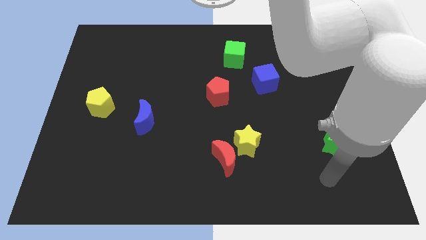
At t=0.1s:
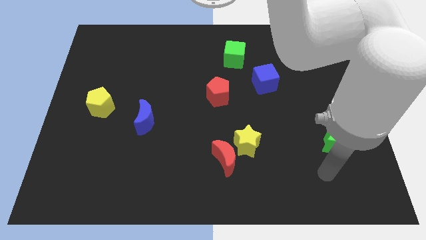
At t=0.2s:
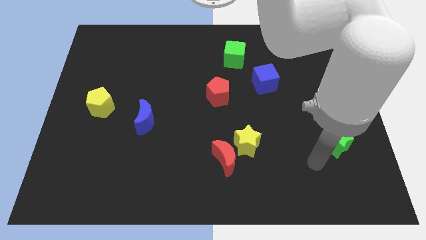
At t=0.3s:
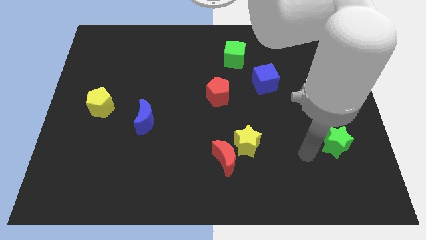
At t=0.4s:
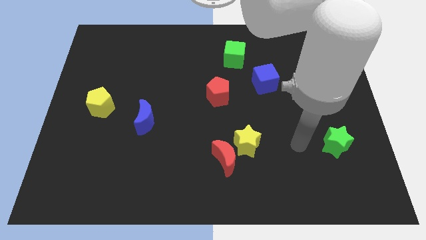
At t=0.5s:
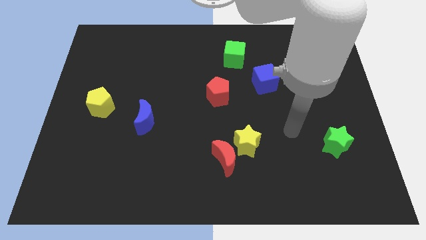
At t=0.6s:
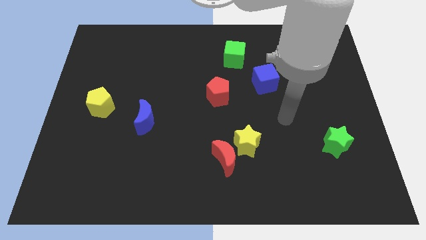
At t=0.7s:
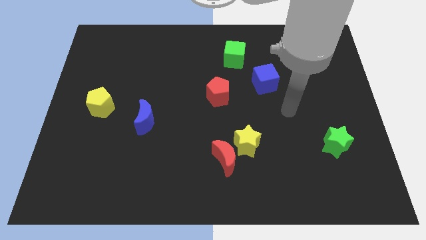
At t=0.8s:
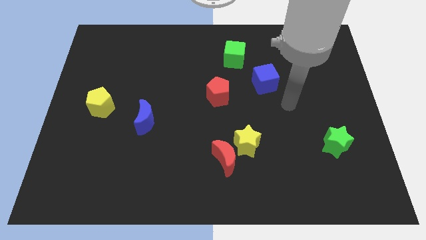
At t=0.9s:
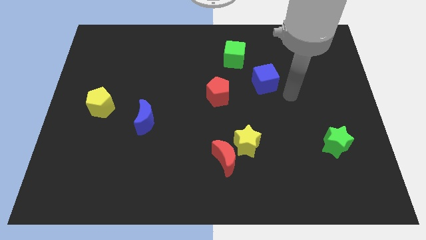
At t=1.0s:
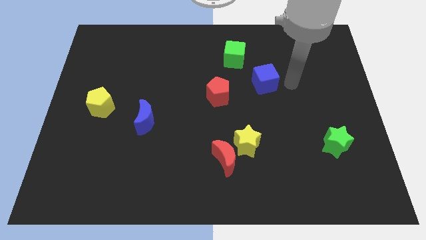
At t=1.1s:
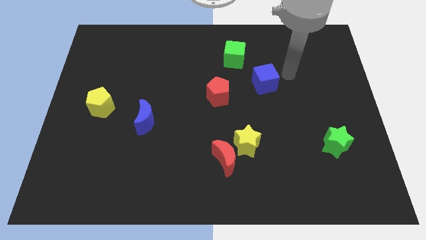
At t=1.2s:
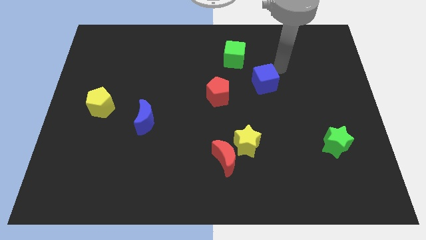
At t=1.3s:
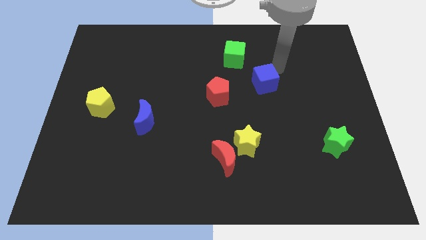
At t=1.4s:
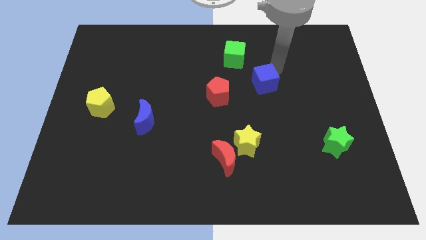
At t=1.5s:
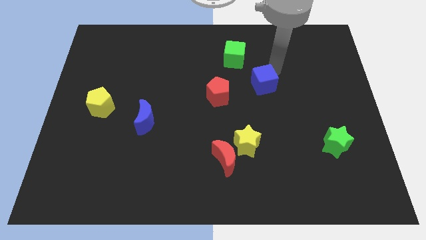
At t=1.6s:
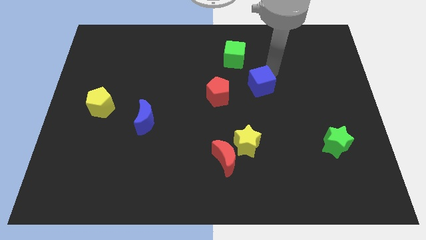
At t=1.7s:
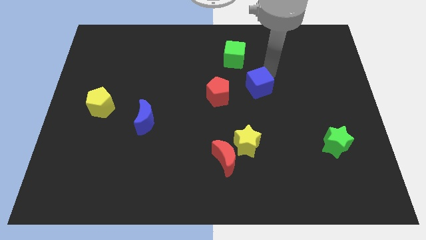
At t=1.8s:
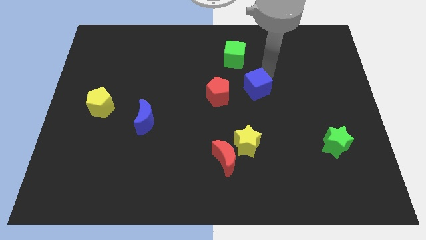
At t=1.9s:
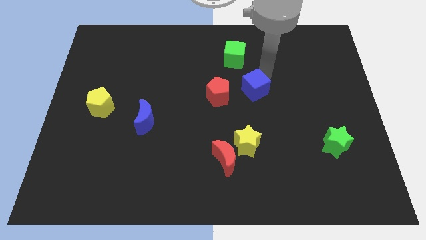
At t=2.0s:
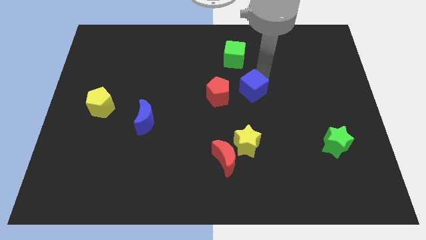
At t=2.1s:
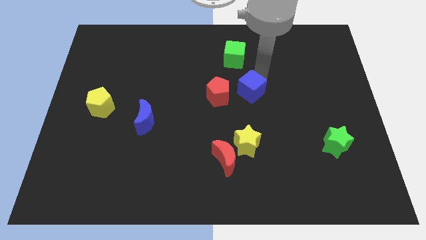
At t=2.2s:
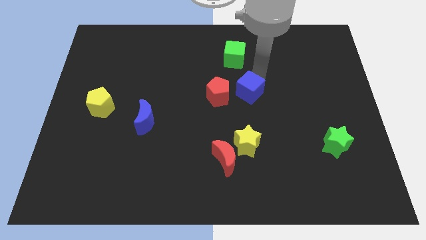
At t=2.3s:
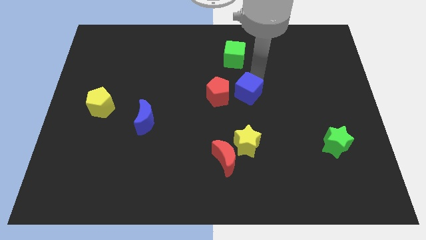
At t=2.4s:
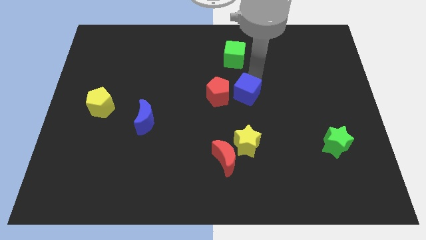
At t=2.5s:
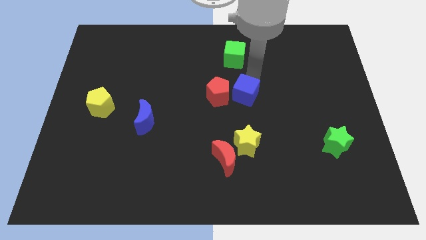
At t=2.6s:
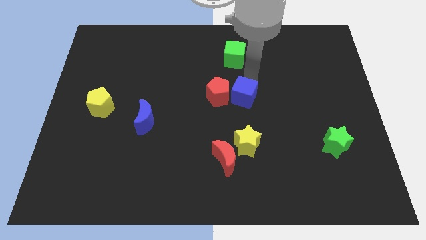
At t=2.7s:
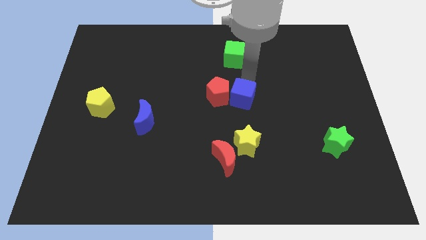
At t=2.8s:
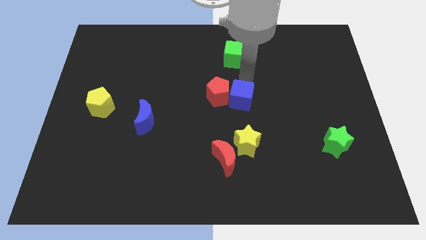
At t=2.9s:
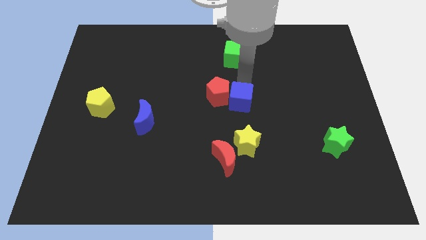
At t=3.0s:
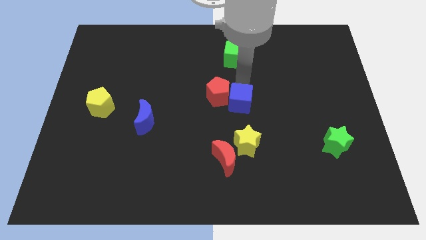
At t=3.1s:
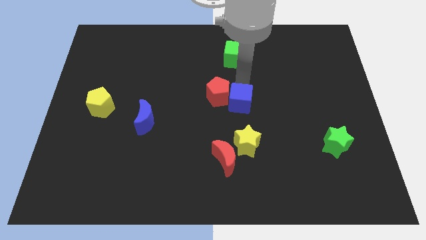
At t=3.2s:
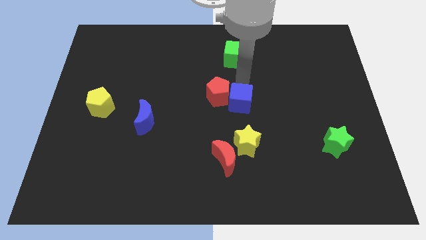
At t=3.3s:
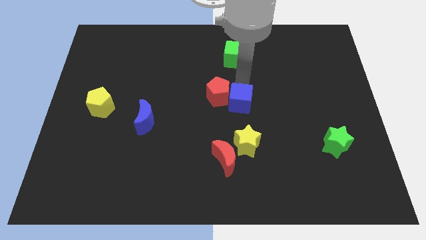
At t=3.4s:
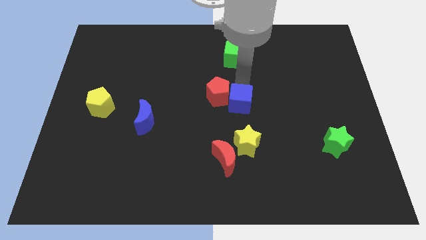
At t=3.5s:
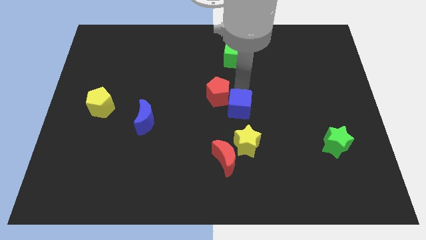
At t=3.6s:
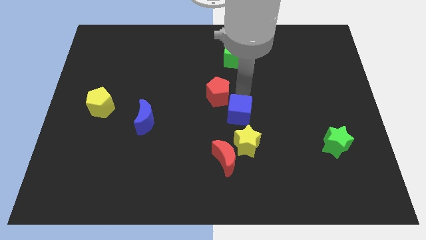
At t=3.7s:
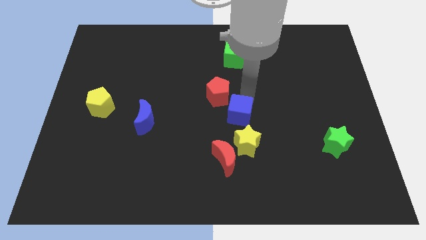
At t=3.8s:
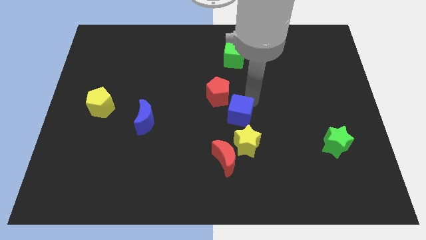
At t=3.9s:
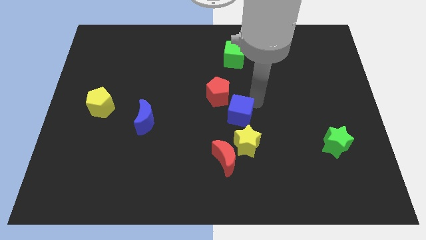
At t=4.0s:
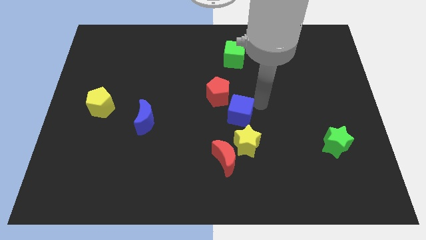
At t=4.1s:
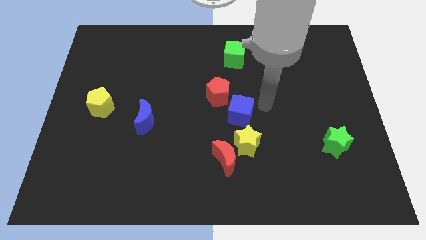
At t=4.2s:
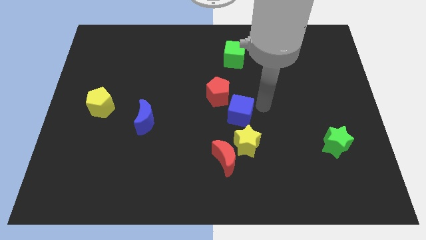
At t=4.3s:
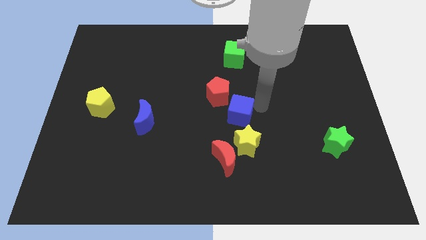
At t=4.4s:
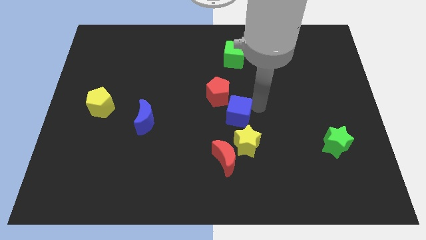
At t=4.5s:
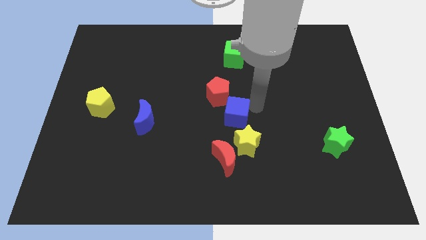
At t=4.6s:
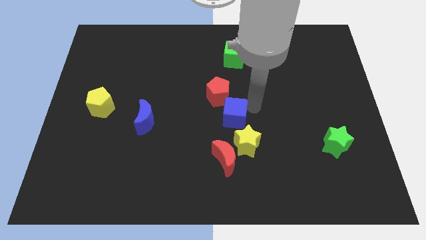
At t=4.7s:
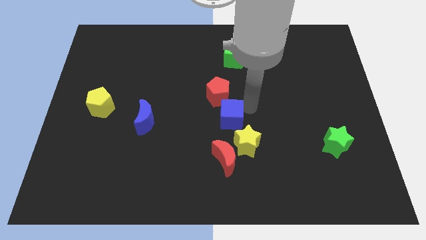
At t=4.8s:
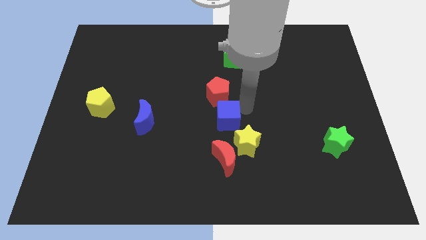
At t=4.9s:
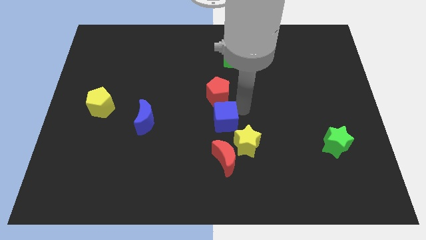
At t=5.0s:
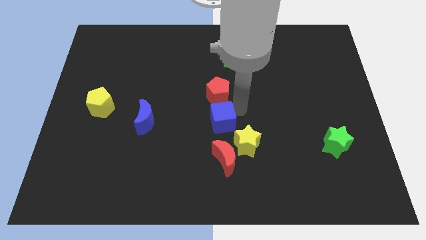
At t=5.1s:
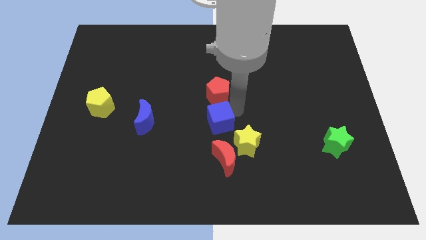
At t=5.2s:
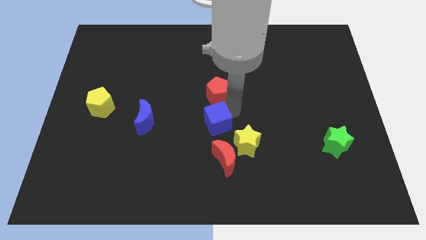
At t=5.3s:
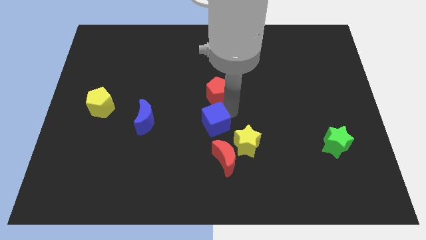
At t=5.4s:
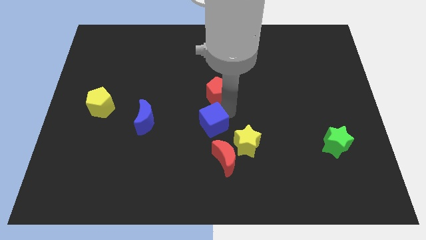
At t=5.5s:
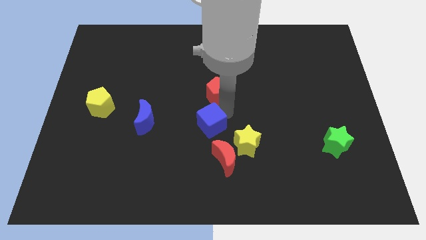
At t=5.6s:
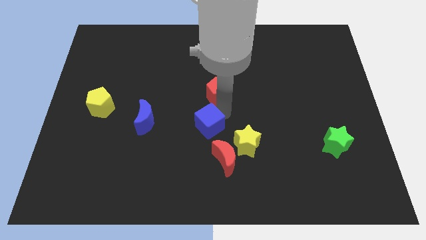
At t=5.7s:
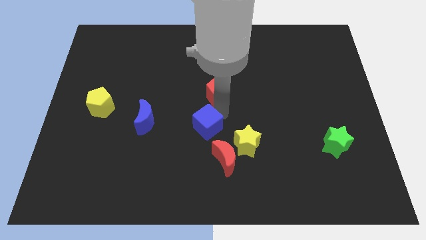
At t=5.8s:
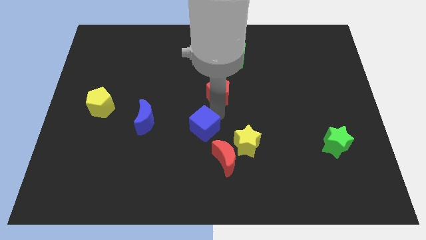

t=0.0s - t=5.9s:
slide the blue cube down and then to the left

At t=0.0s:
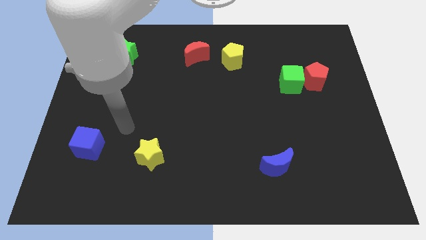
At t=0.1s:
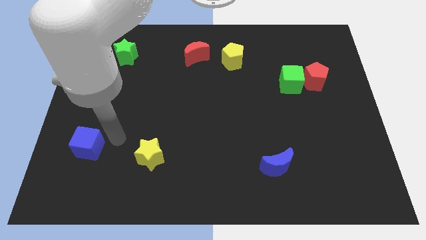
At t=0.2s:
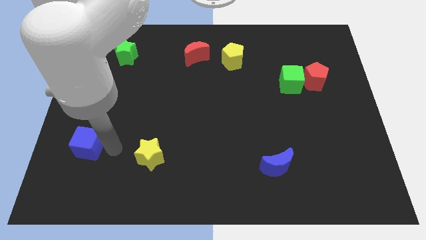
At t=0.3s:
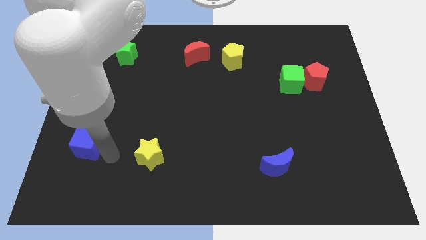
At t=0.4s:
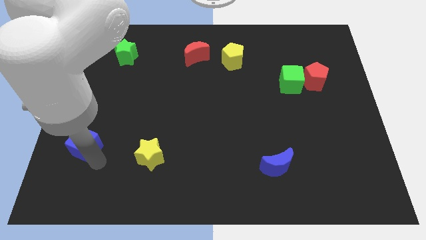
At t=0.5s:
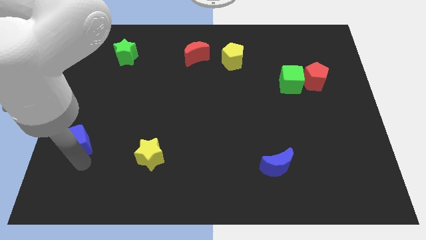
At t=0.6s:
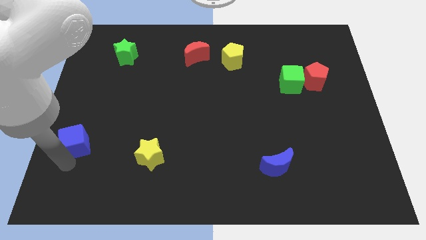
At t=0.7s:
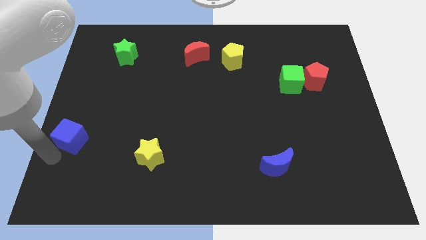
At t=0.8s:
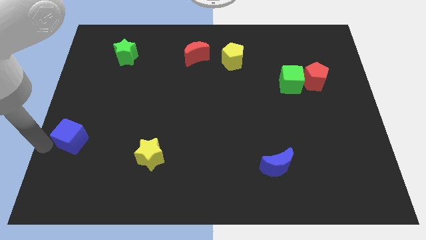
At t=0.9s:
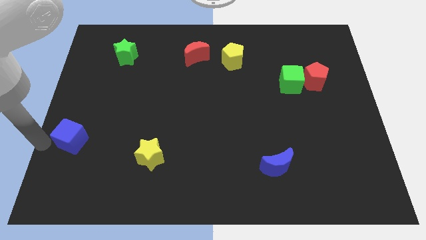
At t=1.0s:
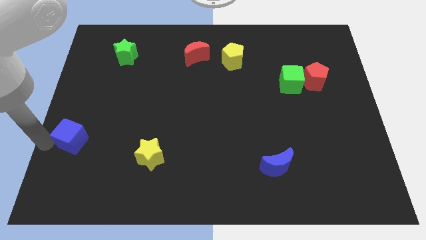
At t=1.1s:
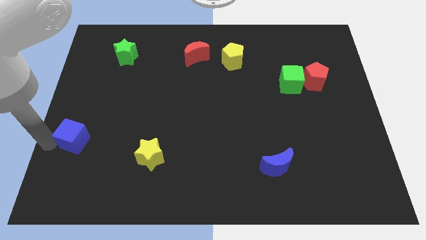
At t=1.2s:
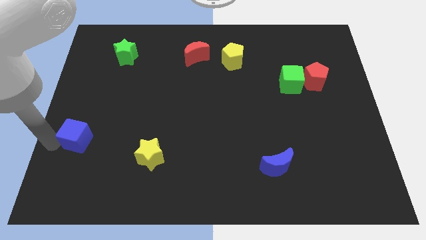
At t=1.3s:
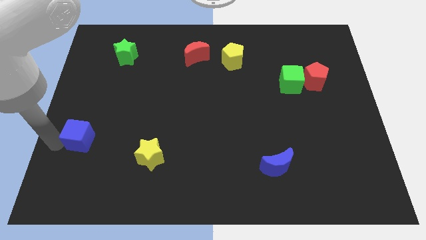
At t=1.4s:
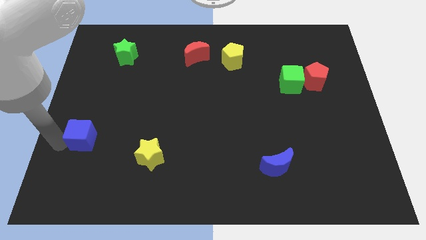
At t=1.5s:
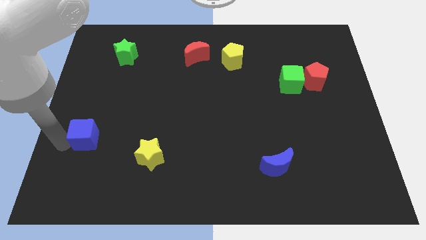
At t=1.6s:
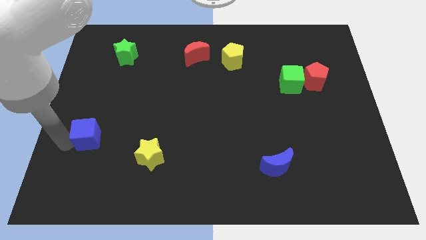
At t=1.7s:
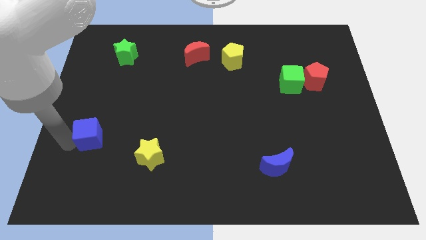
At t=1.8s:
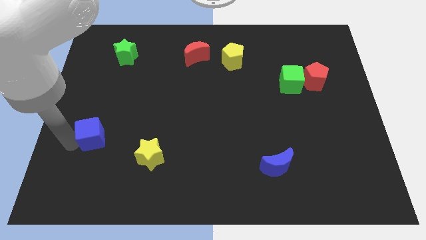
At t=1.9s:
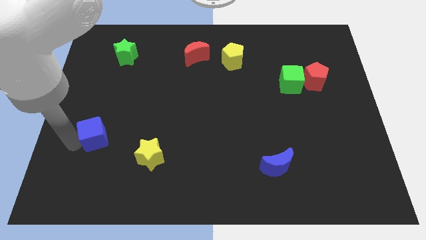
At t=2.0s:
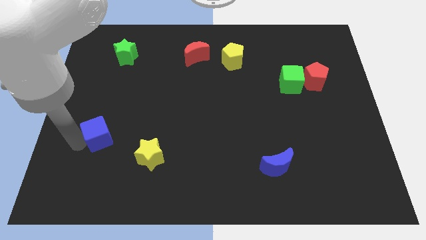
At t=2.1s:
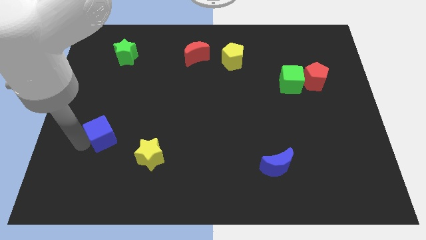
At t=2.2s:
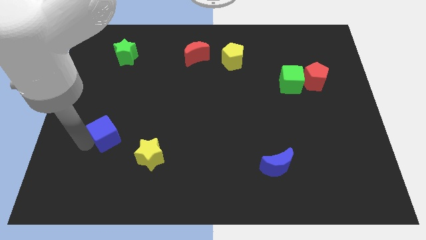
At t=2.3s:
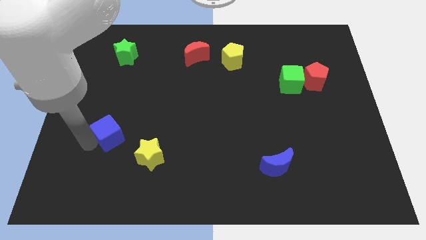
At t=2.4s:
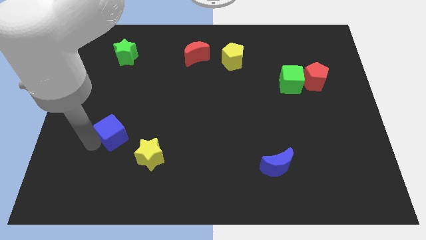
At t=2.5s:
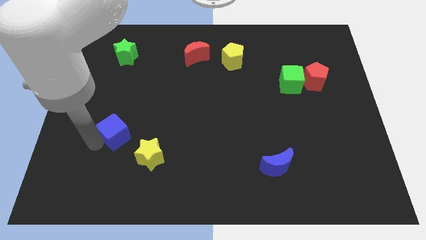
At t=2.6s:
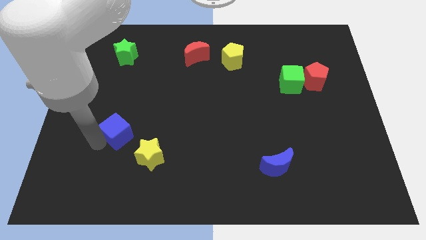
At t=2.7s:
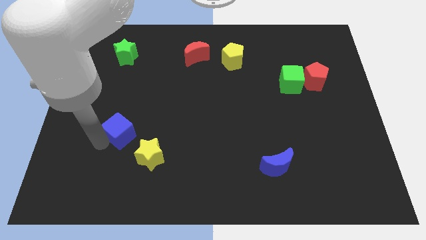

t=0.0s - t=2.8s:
slide the blue cube somewhat upwards and then right
